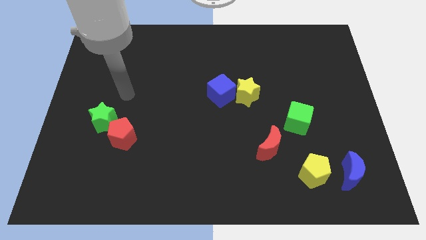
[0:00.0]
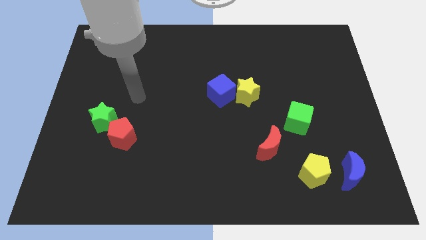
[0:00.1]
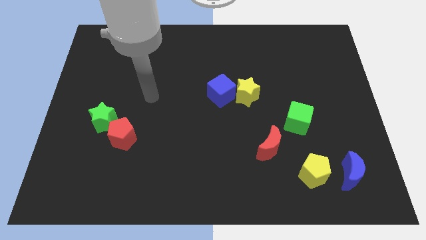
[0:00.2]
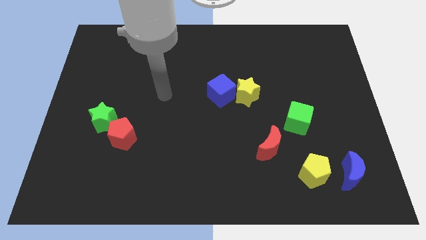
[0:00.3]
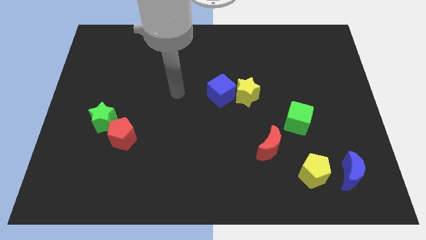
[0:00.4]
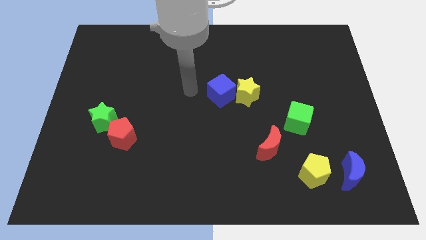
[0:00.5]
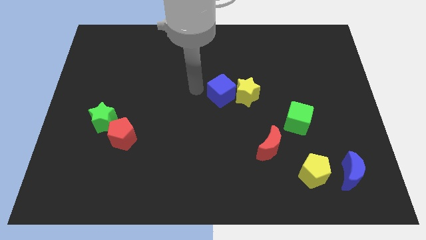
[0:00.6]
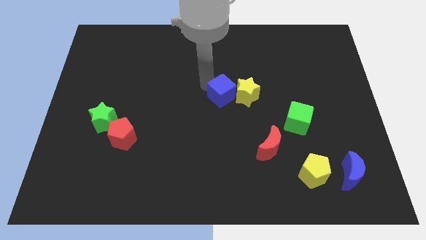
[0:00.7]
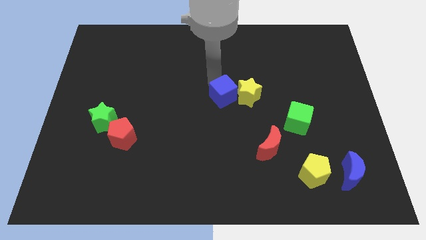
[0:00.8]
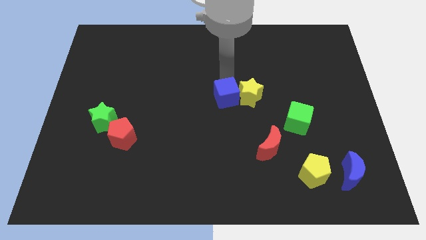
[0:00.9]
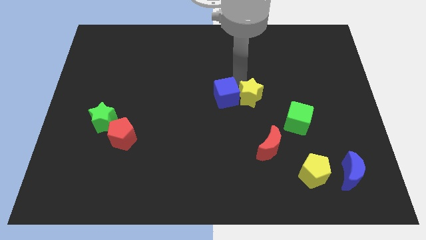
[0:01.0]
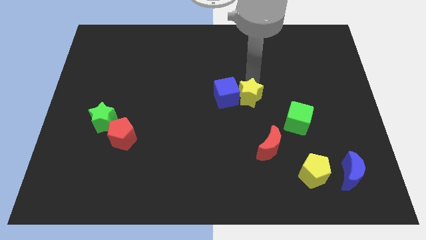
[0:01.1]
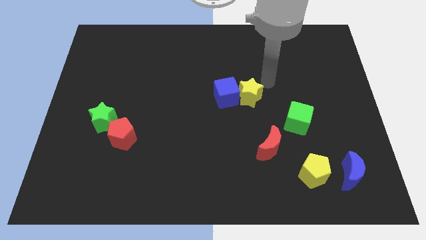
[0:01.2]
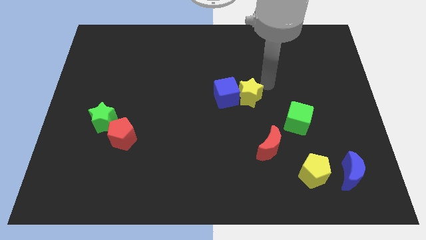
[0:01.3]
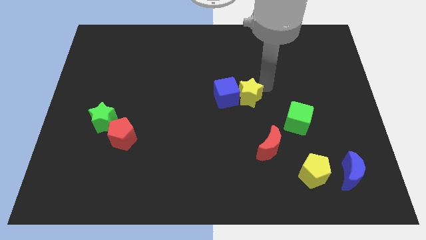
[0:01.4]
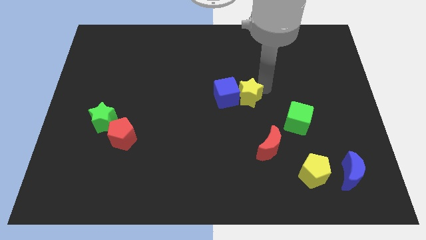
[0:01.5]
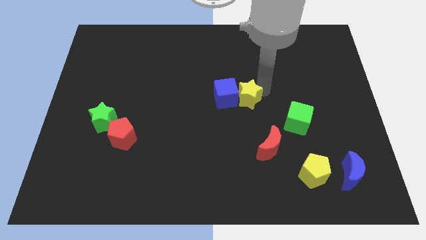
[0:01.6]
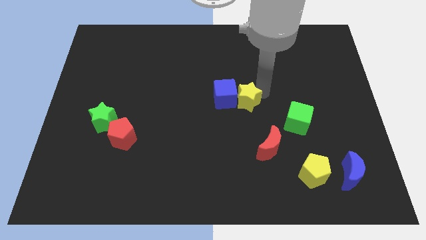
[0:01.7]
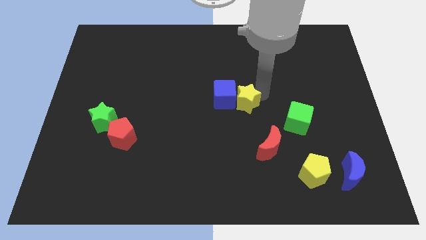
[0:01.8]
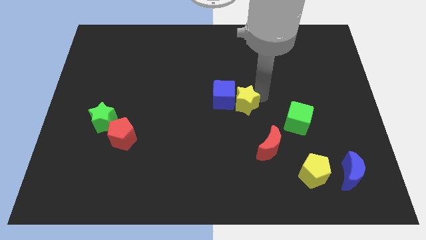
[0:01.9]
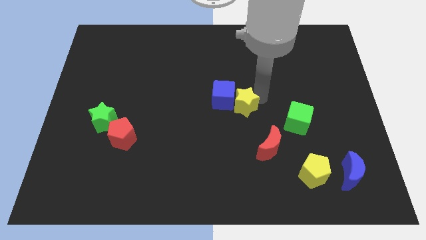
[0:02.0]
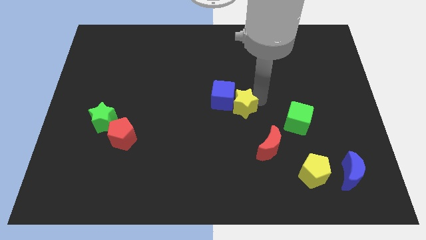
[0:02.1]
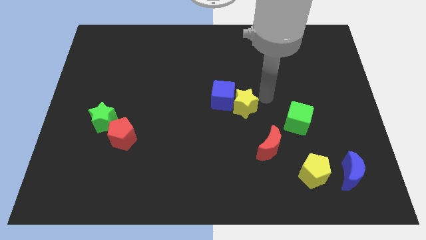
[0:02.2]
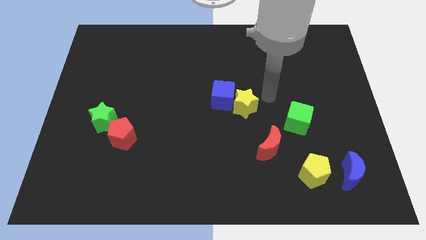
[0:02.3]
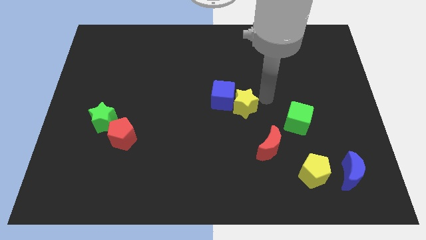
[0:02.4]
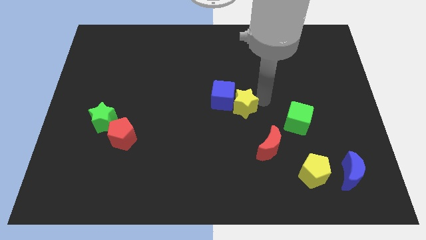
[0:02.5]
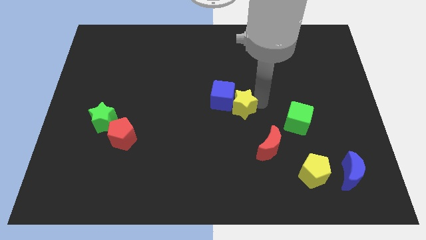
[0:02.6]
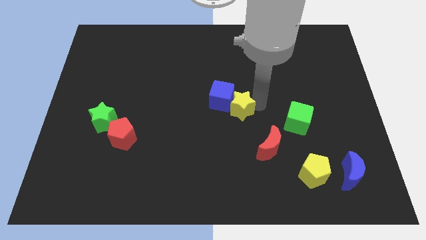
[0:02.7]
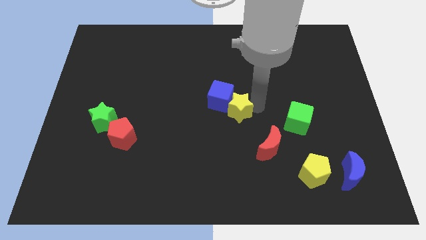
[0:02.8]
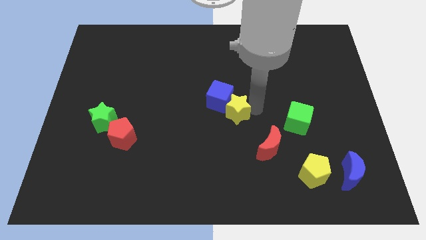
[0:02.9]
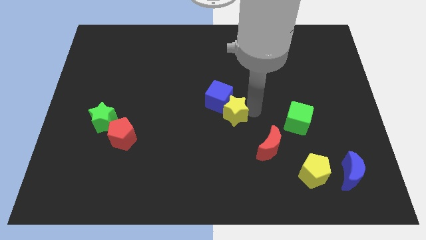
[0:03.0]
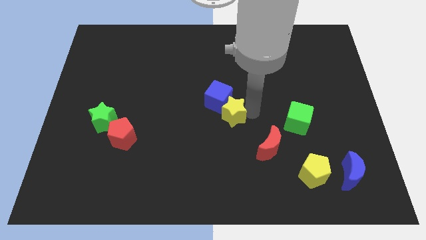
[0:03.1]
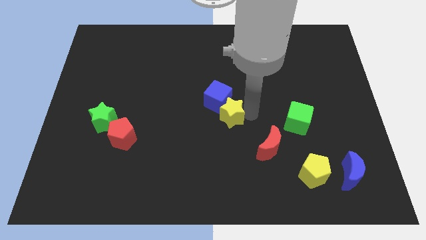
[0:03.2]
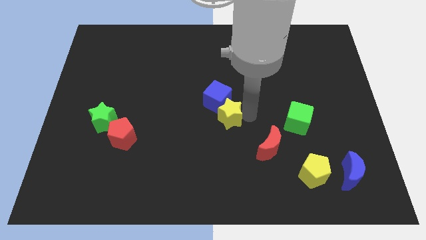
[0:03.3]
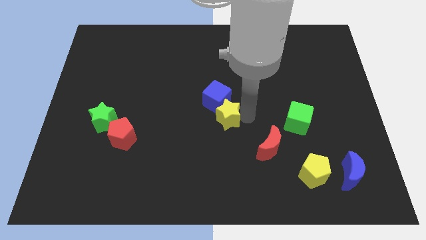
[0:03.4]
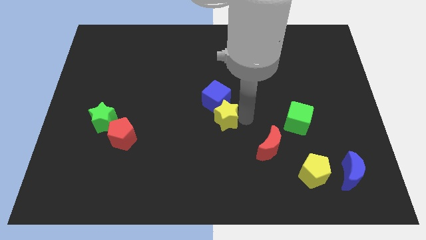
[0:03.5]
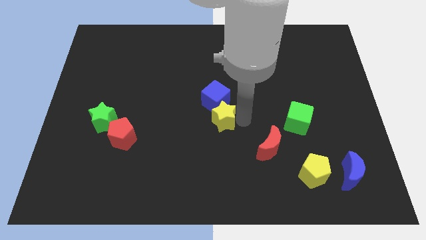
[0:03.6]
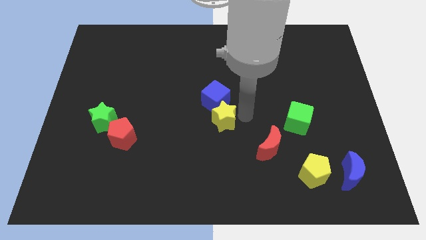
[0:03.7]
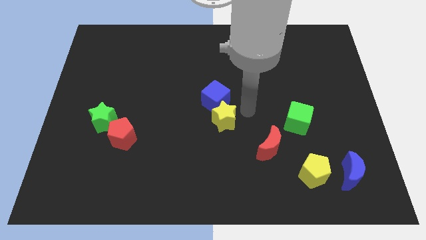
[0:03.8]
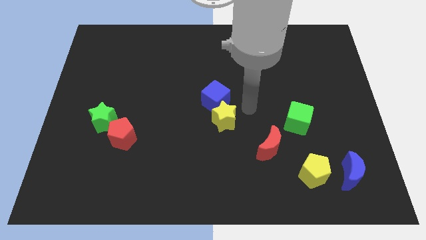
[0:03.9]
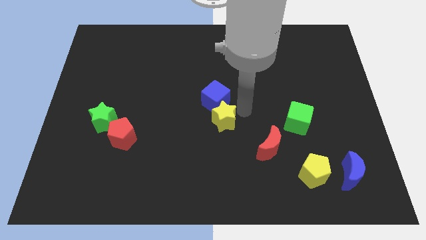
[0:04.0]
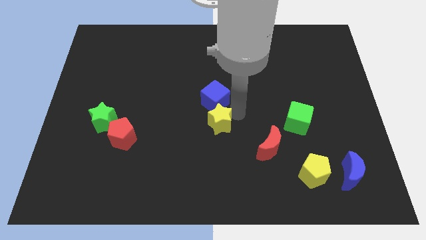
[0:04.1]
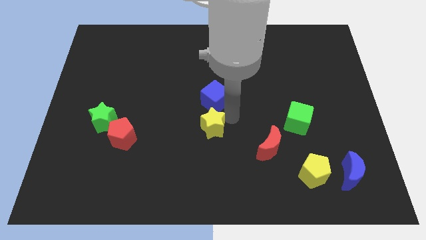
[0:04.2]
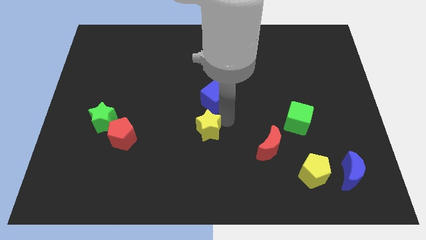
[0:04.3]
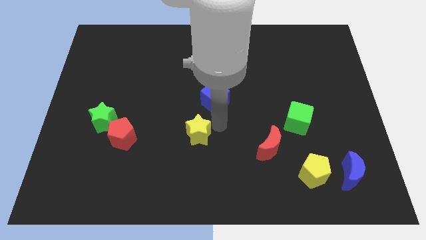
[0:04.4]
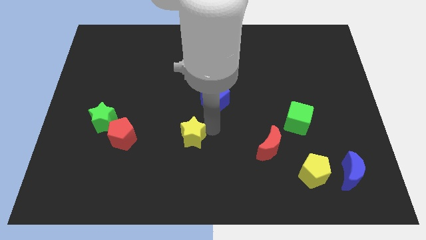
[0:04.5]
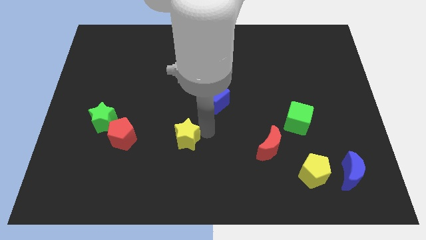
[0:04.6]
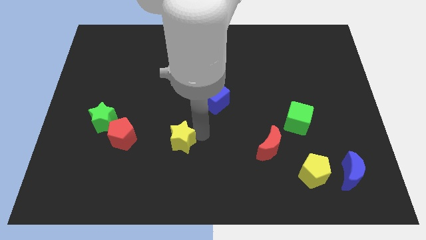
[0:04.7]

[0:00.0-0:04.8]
move the yellow star downwards and to the left

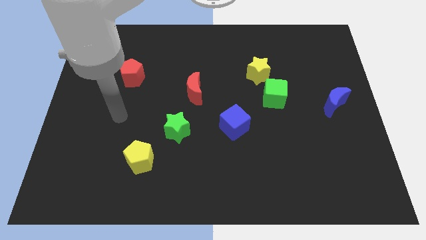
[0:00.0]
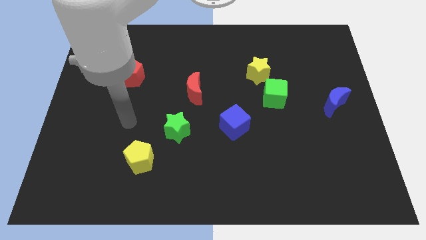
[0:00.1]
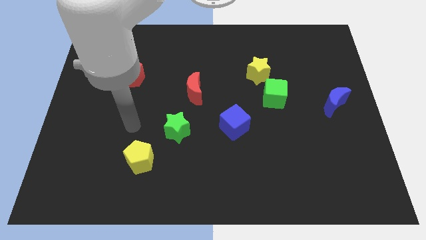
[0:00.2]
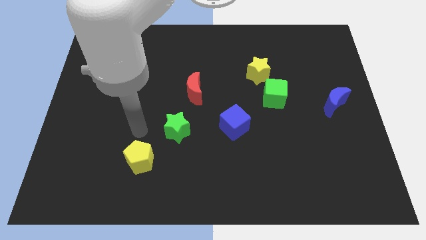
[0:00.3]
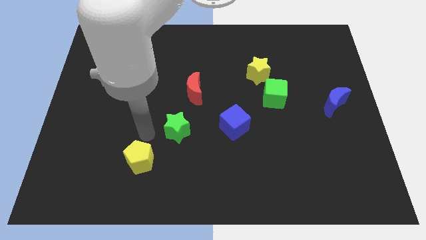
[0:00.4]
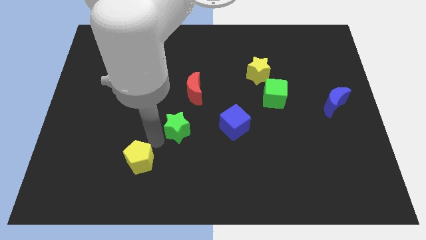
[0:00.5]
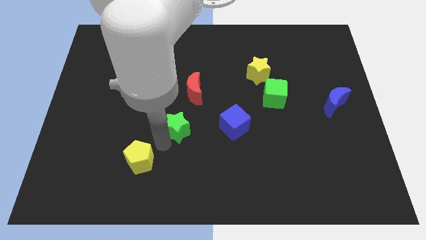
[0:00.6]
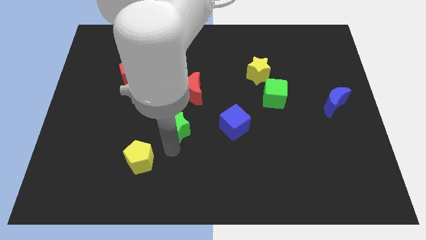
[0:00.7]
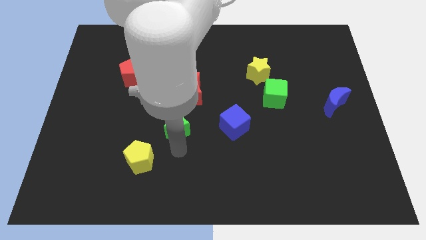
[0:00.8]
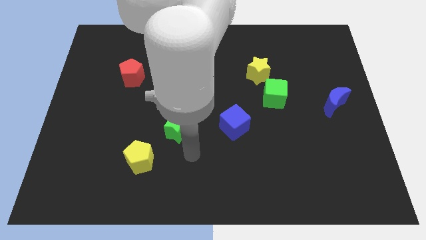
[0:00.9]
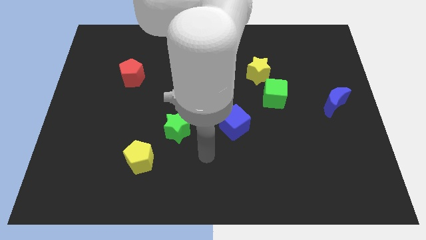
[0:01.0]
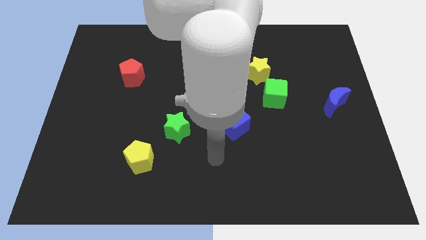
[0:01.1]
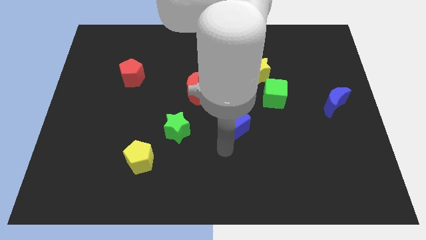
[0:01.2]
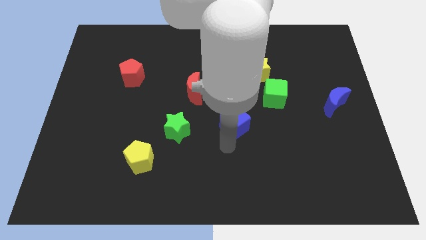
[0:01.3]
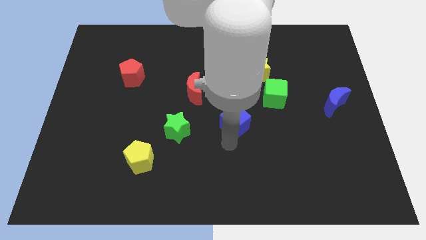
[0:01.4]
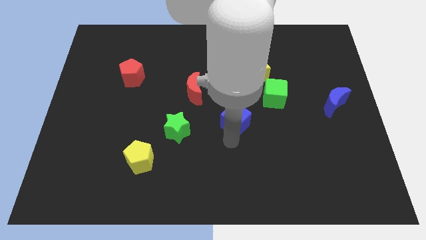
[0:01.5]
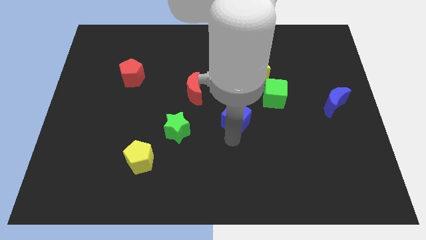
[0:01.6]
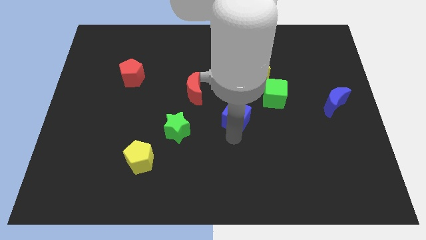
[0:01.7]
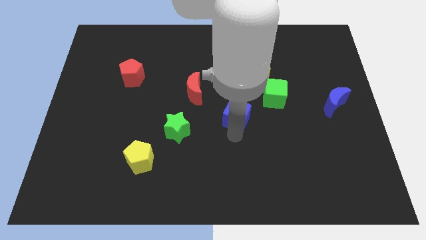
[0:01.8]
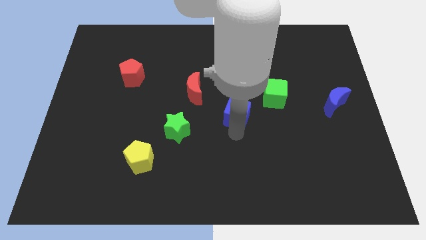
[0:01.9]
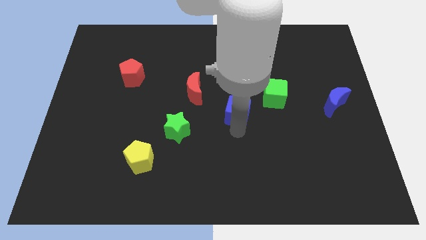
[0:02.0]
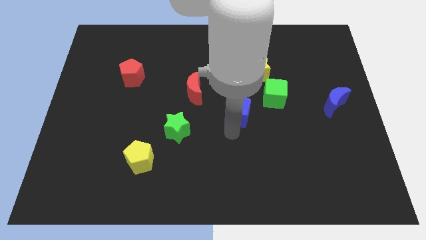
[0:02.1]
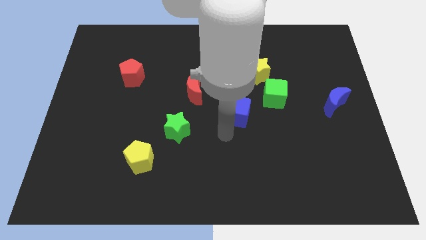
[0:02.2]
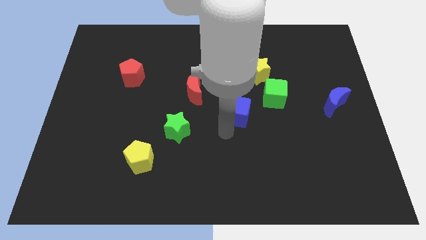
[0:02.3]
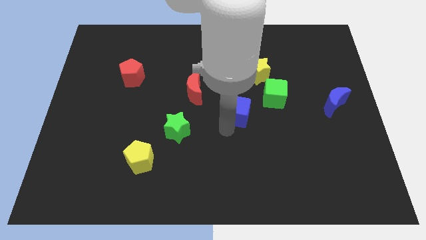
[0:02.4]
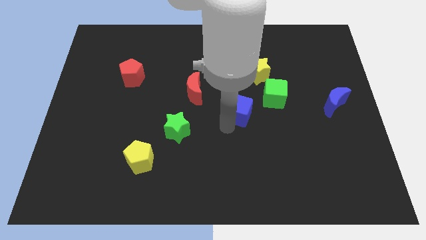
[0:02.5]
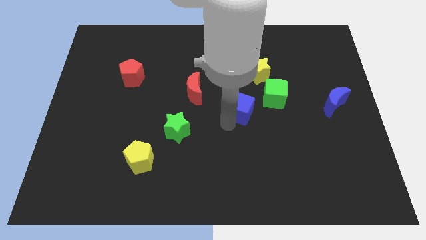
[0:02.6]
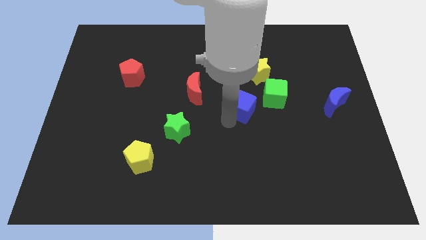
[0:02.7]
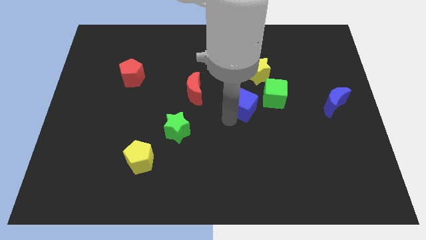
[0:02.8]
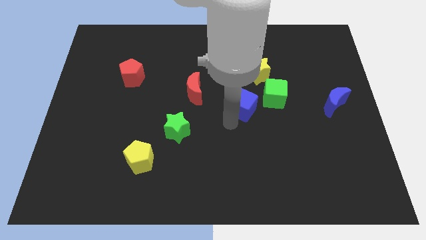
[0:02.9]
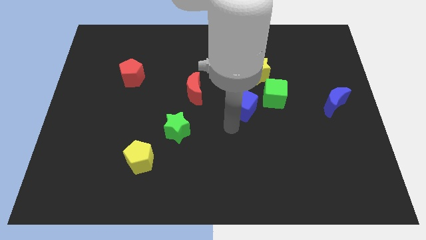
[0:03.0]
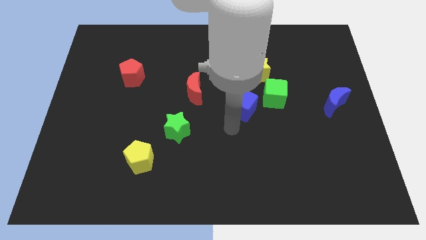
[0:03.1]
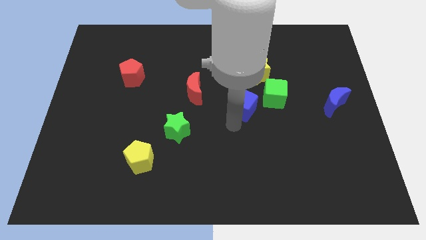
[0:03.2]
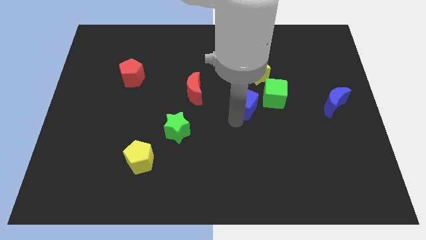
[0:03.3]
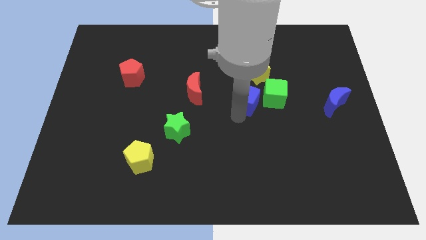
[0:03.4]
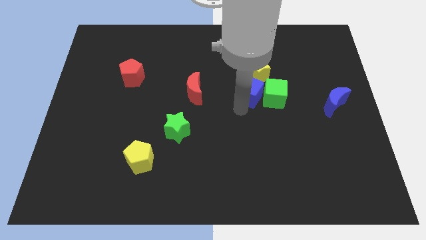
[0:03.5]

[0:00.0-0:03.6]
slightly push the blue cube up and then right
